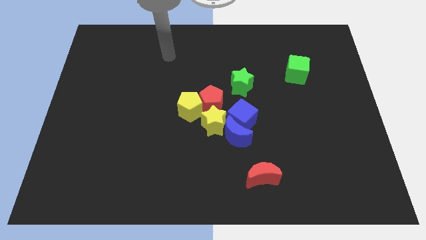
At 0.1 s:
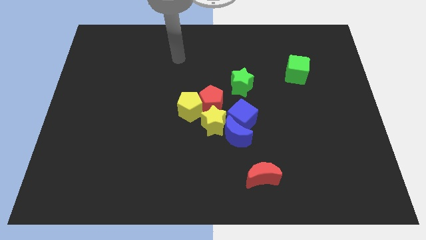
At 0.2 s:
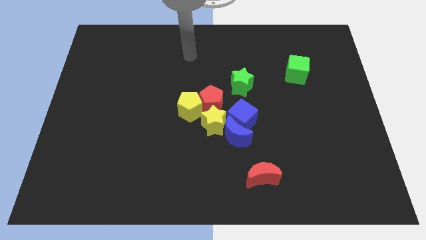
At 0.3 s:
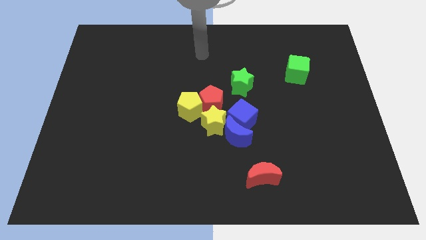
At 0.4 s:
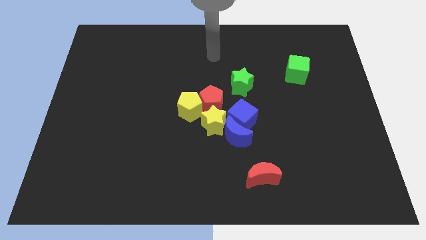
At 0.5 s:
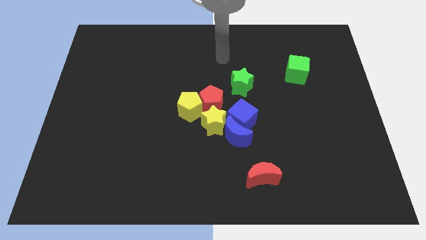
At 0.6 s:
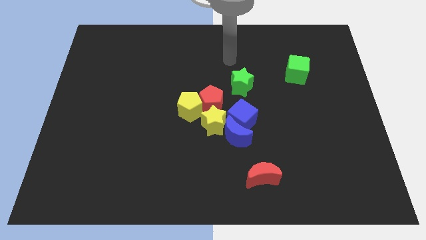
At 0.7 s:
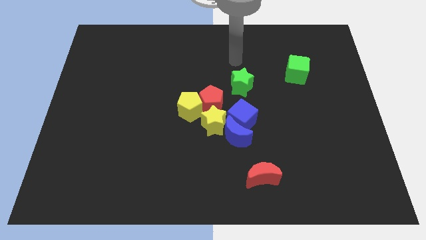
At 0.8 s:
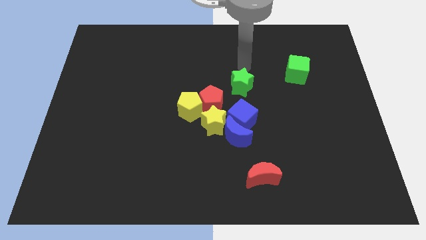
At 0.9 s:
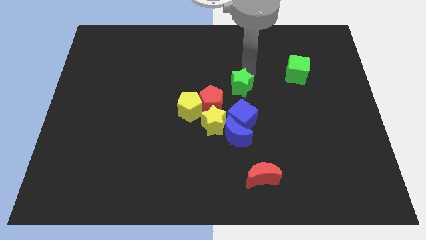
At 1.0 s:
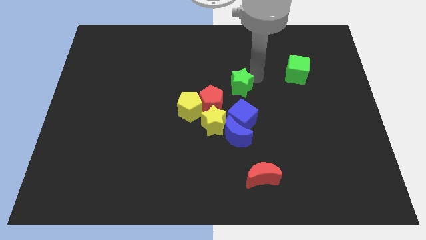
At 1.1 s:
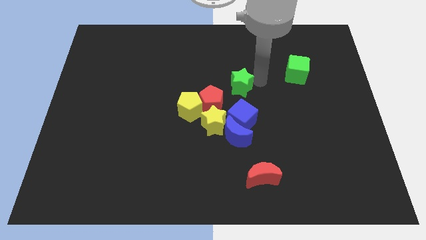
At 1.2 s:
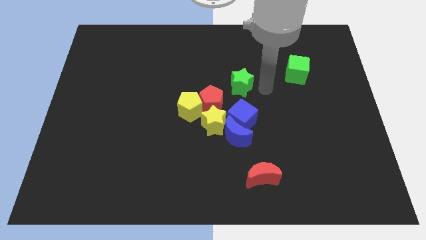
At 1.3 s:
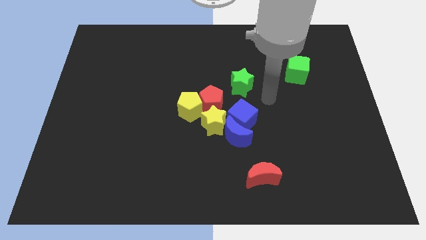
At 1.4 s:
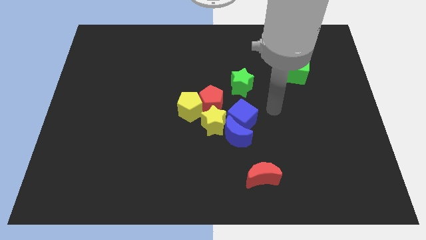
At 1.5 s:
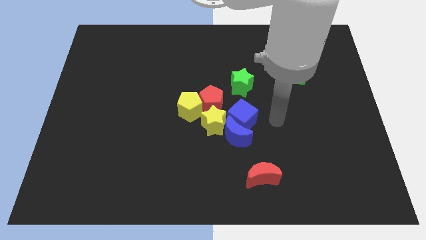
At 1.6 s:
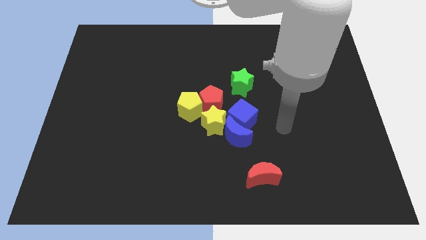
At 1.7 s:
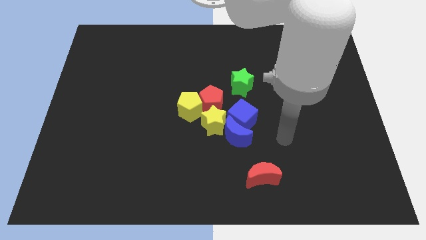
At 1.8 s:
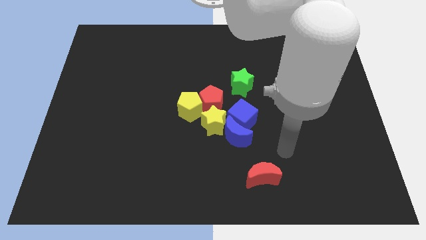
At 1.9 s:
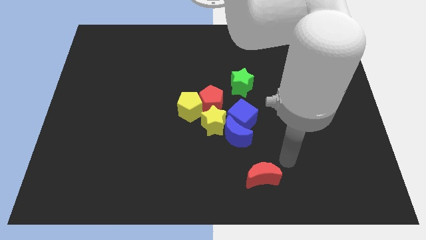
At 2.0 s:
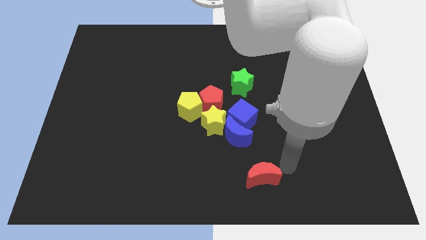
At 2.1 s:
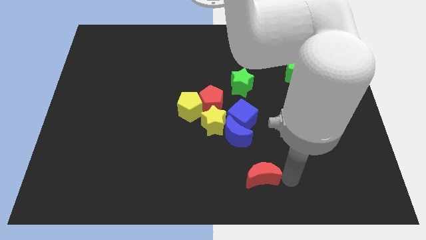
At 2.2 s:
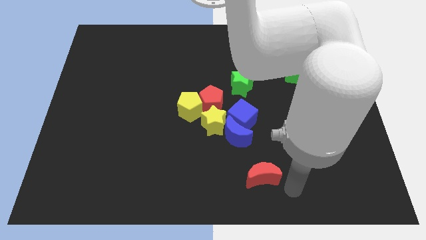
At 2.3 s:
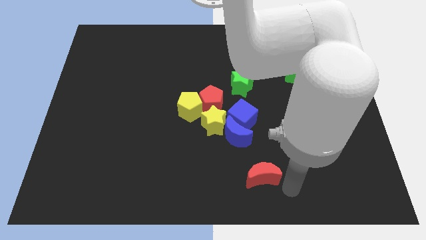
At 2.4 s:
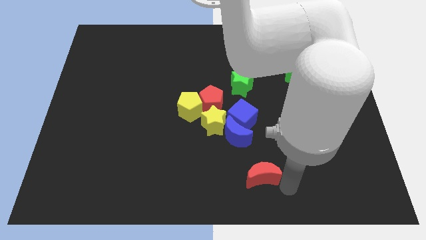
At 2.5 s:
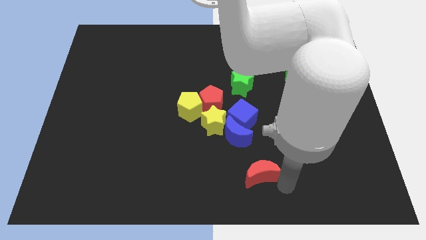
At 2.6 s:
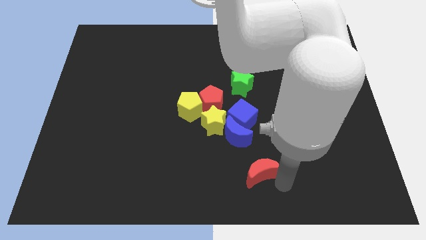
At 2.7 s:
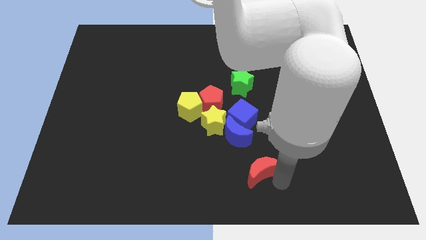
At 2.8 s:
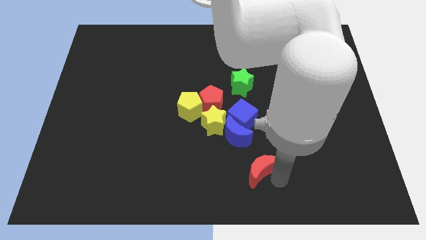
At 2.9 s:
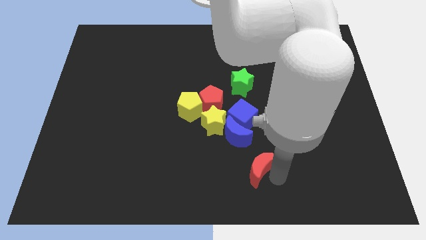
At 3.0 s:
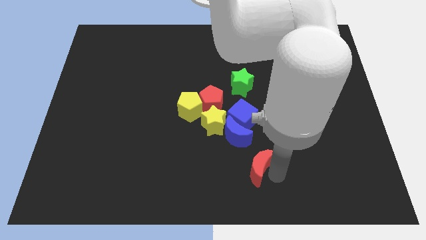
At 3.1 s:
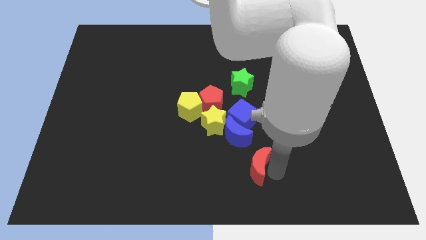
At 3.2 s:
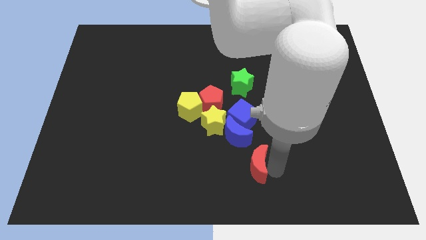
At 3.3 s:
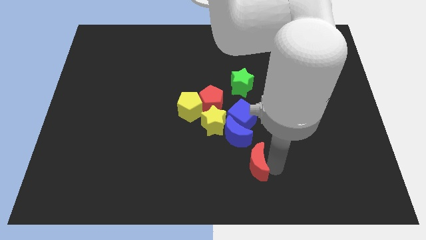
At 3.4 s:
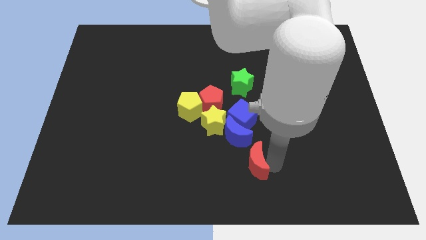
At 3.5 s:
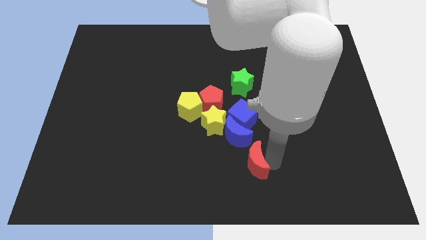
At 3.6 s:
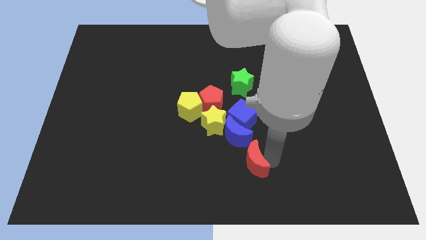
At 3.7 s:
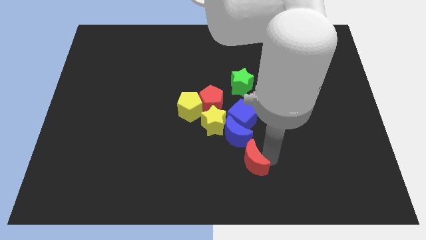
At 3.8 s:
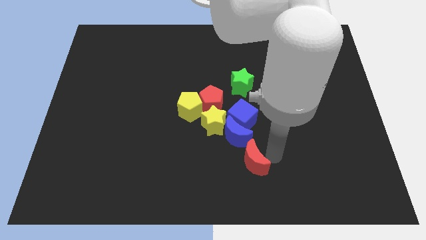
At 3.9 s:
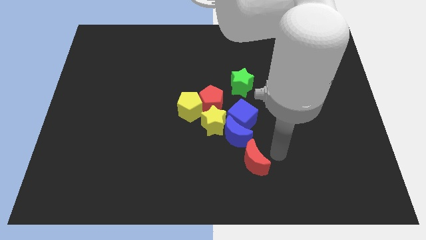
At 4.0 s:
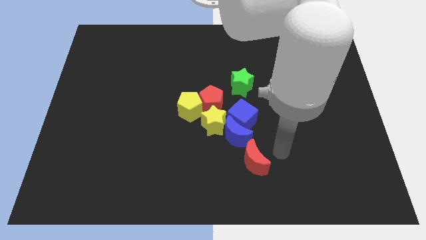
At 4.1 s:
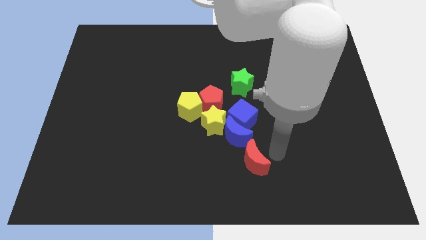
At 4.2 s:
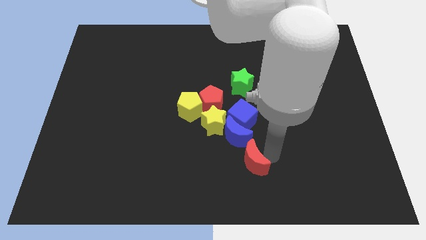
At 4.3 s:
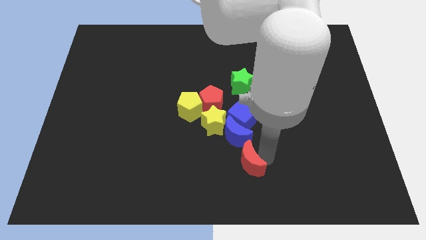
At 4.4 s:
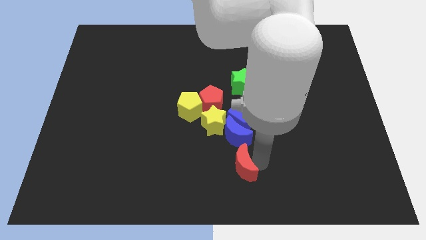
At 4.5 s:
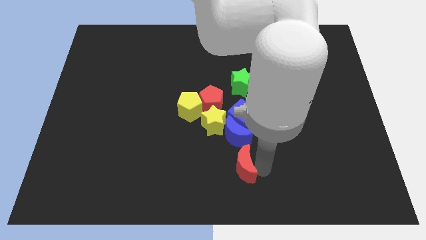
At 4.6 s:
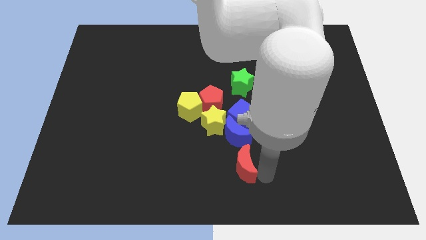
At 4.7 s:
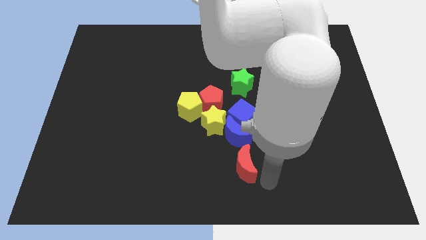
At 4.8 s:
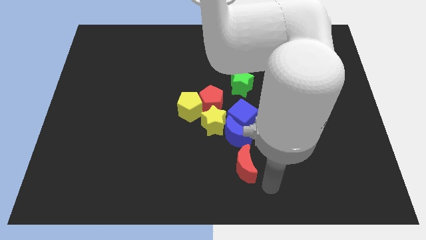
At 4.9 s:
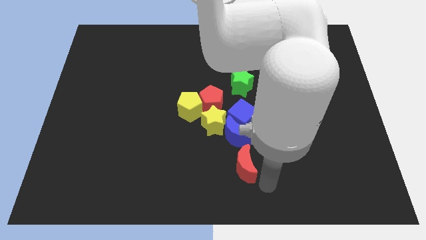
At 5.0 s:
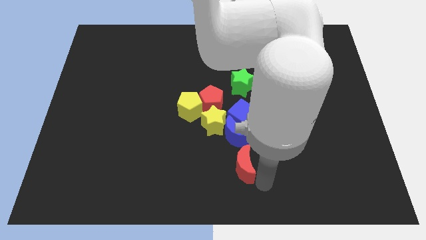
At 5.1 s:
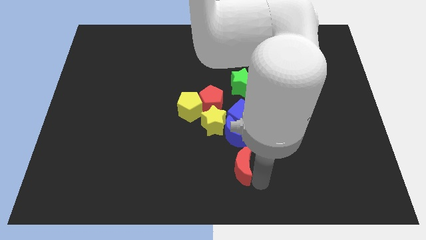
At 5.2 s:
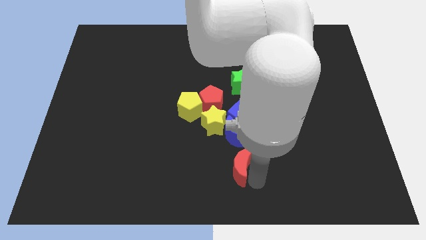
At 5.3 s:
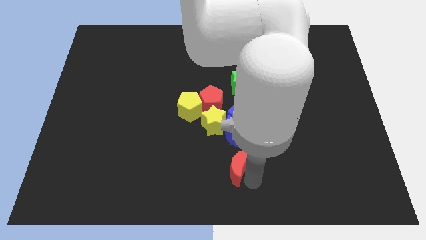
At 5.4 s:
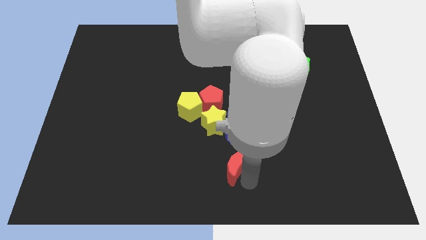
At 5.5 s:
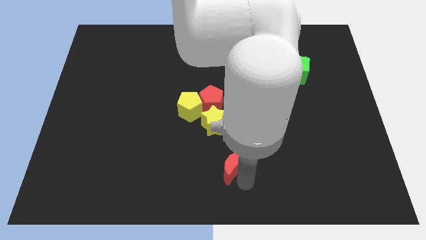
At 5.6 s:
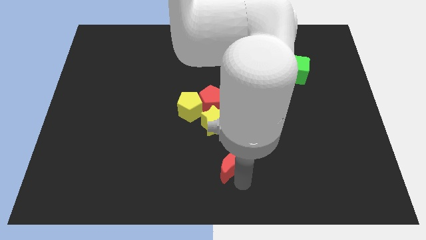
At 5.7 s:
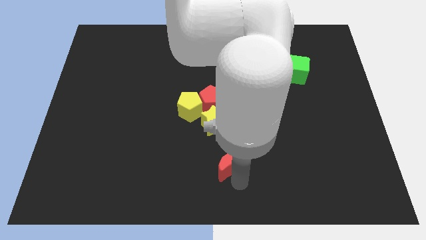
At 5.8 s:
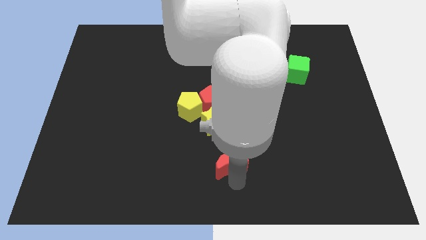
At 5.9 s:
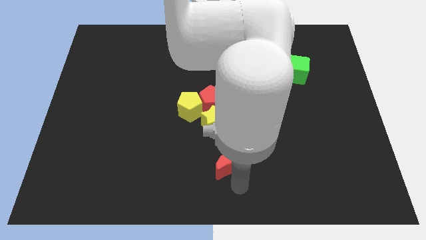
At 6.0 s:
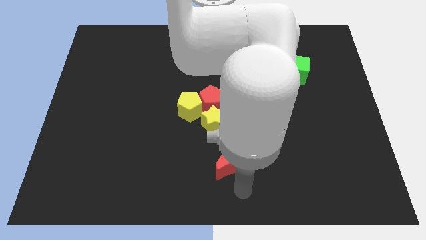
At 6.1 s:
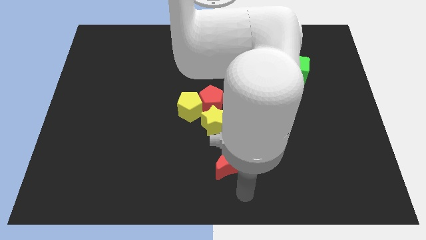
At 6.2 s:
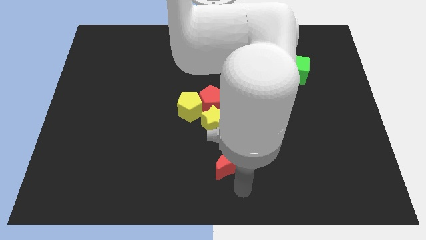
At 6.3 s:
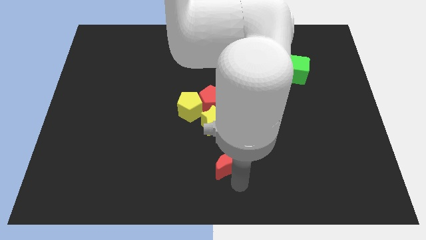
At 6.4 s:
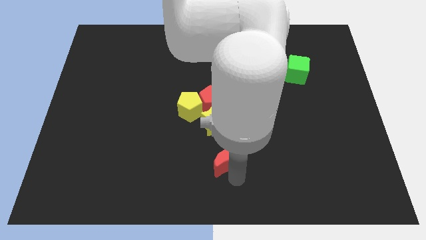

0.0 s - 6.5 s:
slightly slide the red moon diagonally up and to the left

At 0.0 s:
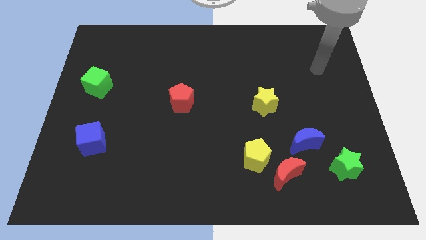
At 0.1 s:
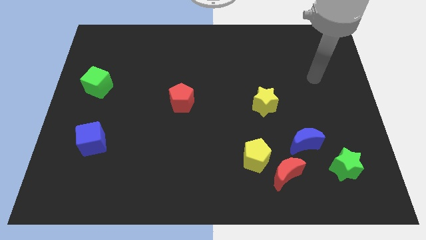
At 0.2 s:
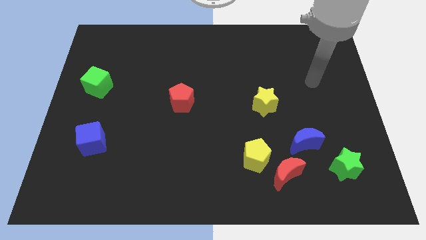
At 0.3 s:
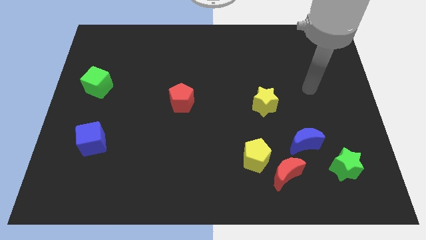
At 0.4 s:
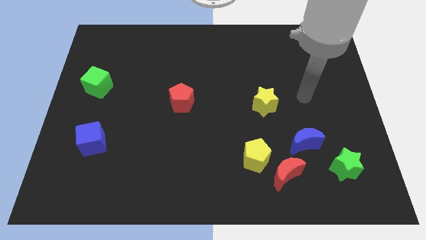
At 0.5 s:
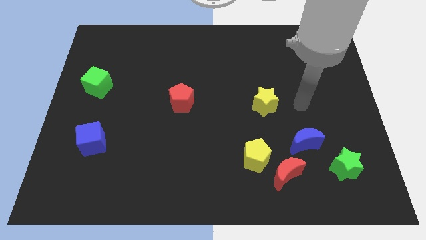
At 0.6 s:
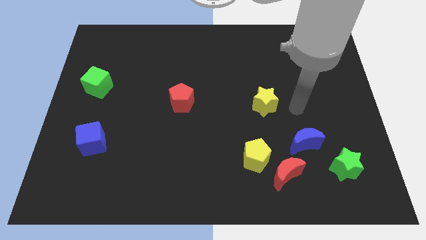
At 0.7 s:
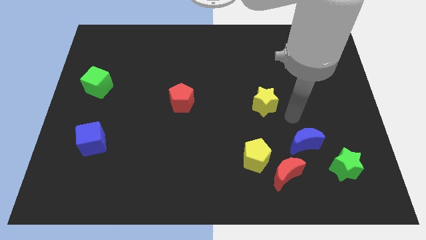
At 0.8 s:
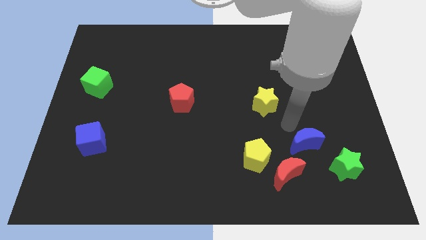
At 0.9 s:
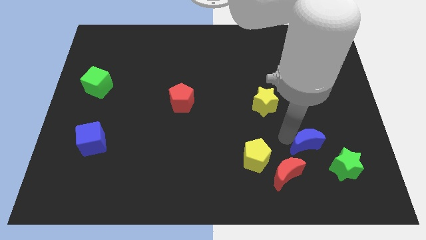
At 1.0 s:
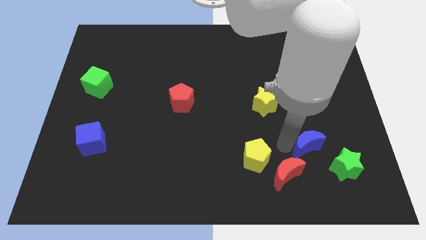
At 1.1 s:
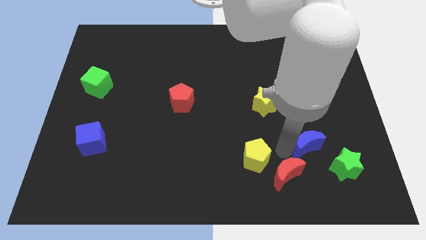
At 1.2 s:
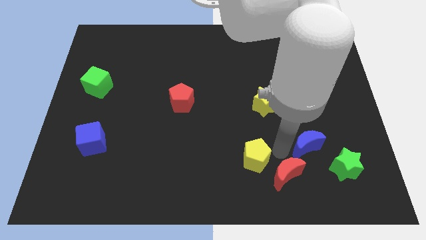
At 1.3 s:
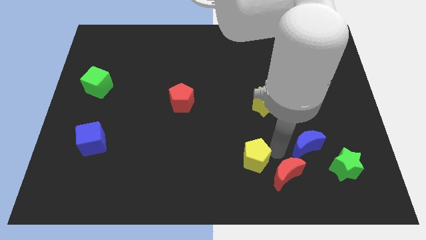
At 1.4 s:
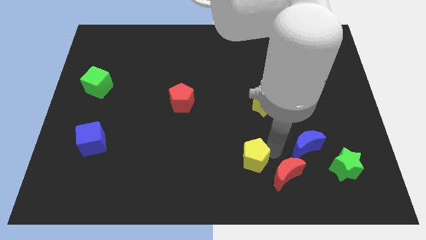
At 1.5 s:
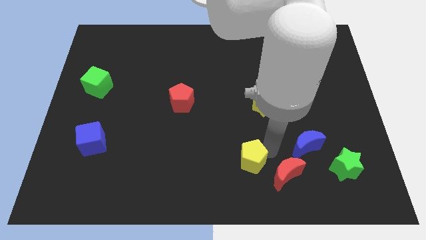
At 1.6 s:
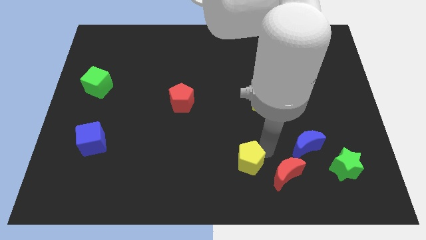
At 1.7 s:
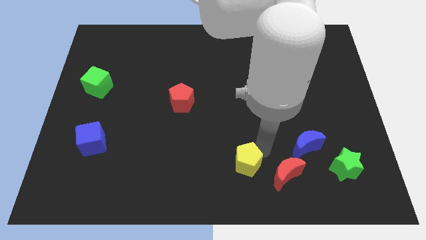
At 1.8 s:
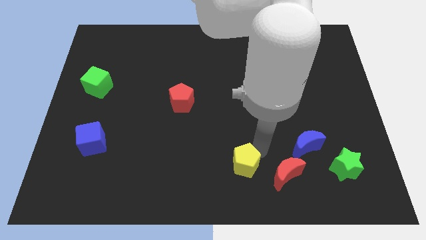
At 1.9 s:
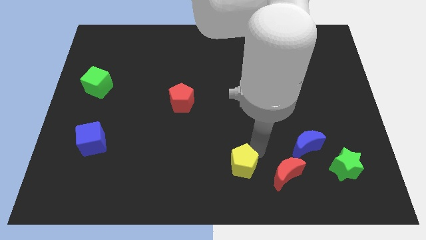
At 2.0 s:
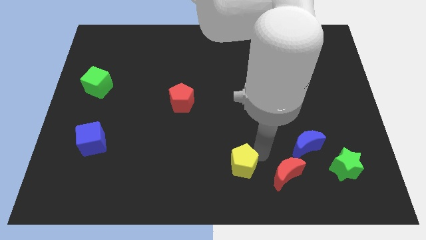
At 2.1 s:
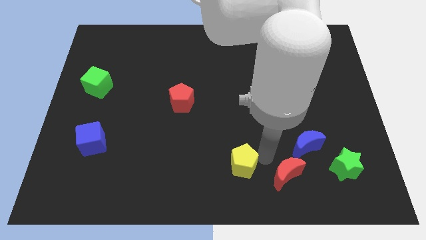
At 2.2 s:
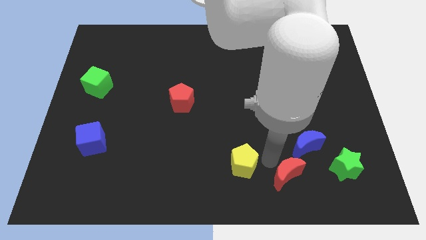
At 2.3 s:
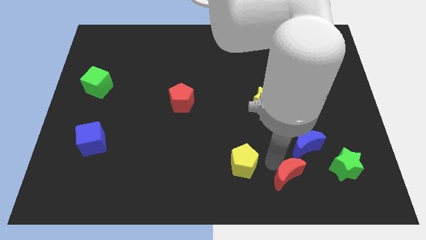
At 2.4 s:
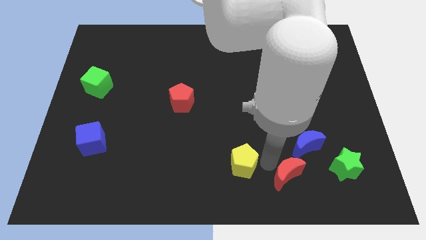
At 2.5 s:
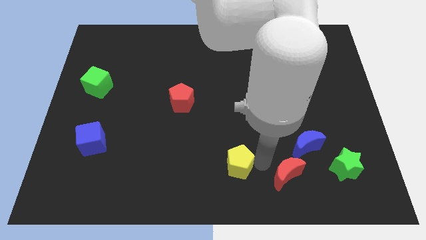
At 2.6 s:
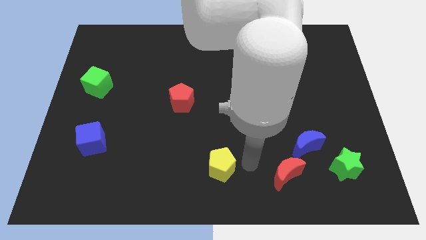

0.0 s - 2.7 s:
slightly move the yellow pentagon to the left
